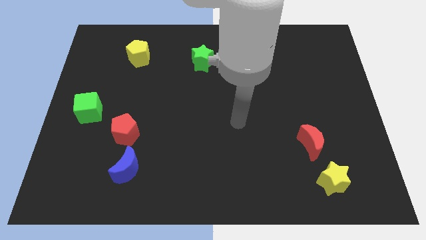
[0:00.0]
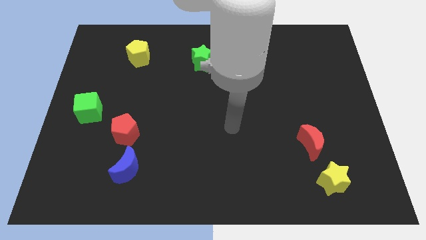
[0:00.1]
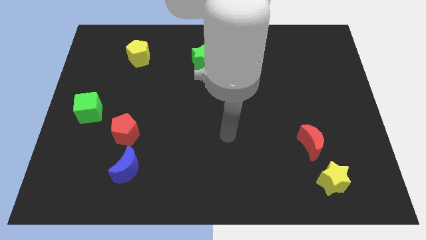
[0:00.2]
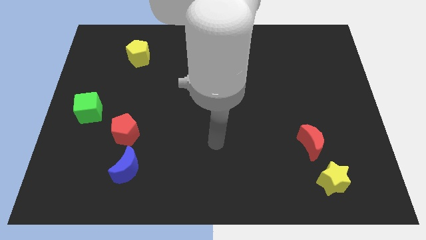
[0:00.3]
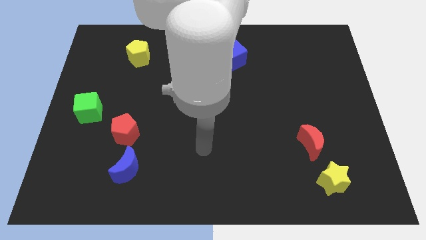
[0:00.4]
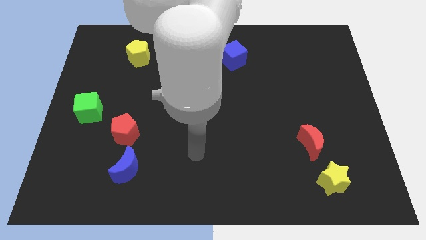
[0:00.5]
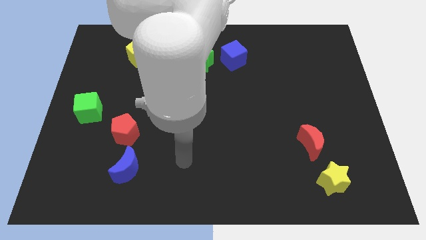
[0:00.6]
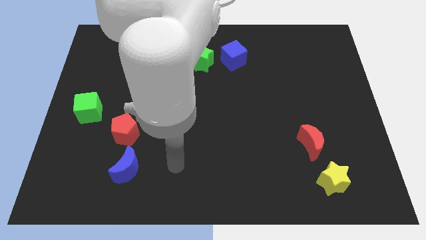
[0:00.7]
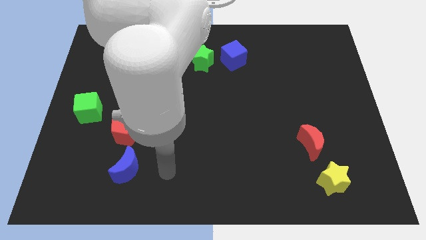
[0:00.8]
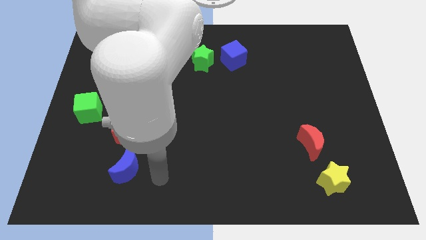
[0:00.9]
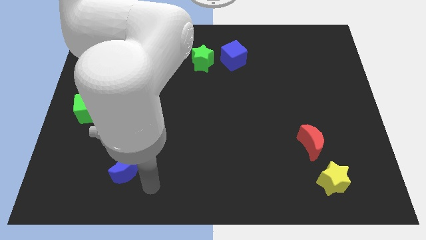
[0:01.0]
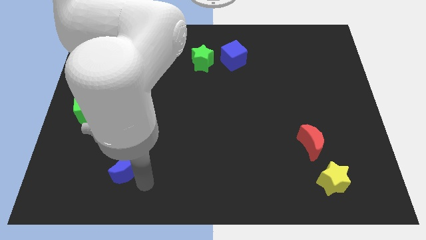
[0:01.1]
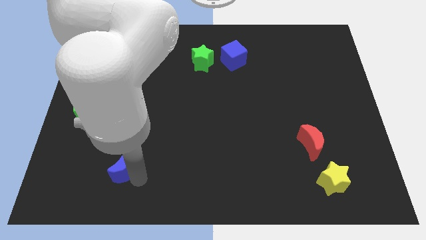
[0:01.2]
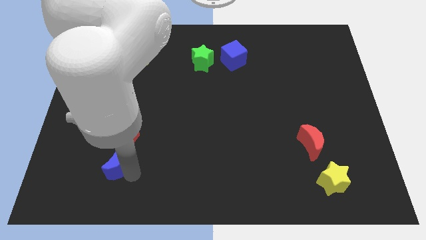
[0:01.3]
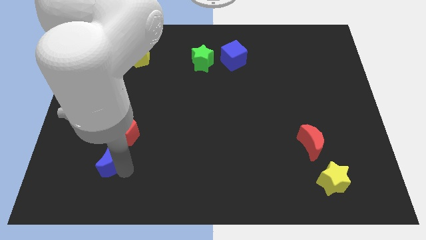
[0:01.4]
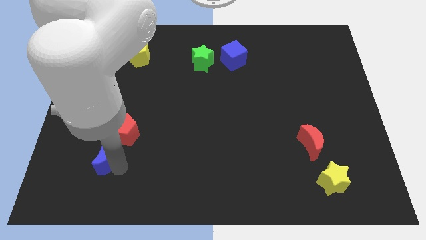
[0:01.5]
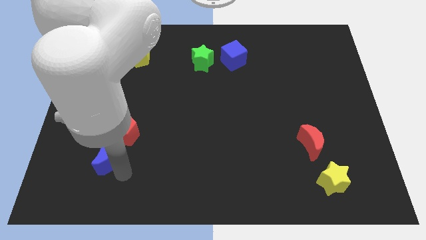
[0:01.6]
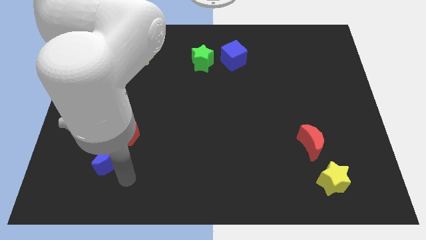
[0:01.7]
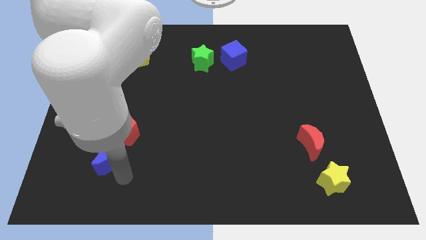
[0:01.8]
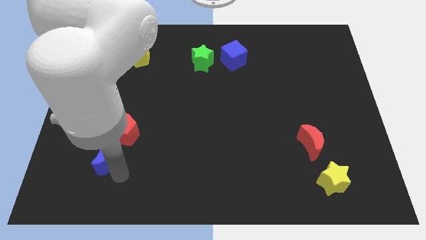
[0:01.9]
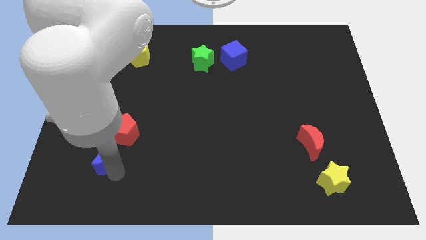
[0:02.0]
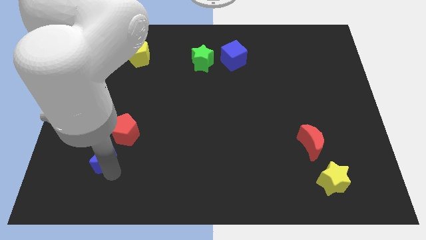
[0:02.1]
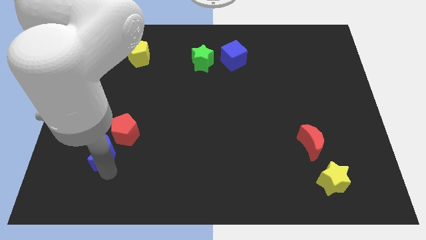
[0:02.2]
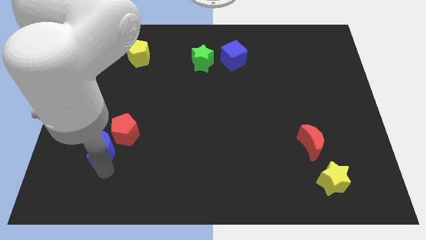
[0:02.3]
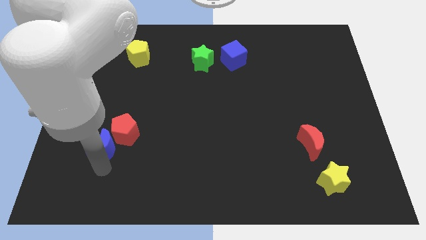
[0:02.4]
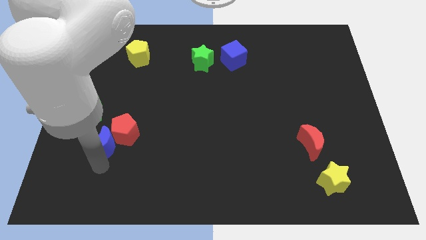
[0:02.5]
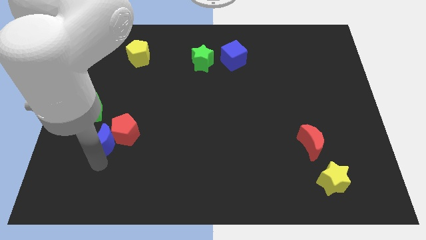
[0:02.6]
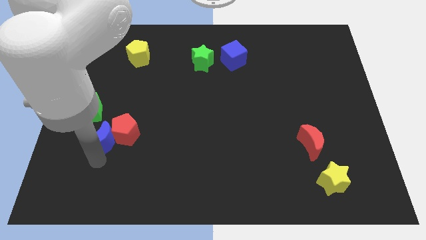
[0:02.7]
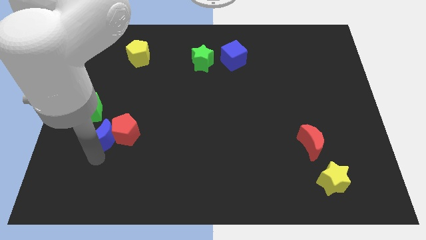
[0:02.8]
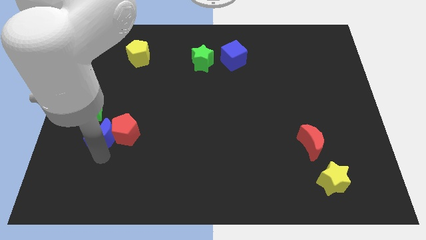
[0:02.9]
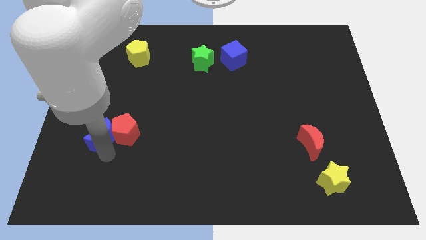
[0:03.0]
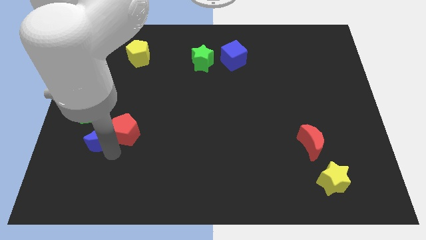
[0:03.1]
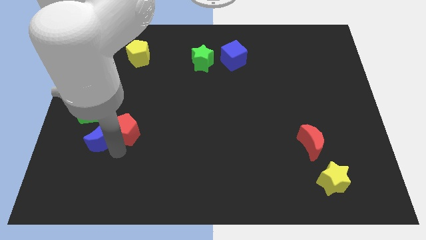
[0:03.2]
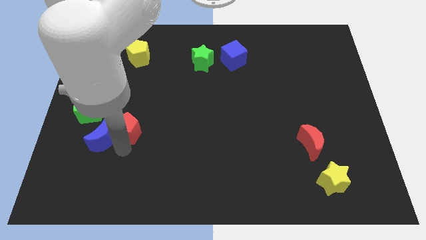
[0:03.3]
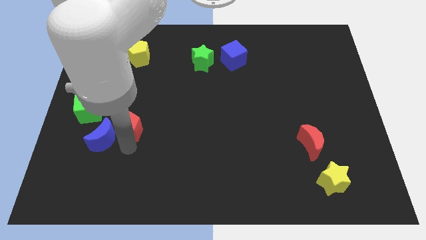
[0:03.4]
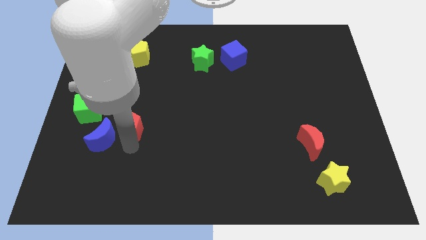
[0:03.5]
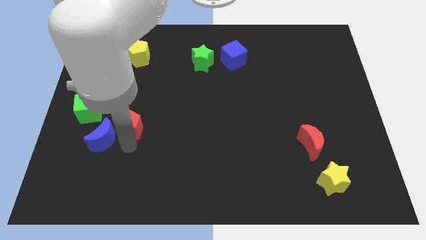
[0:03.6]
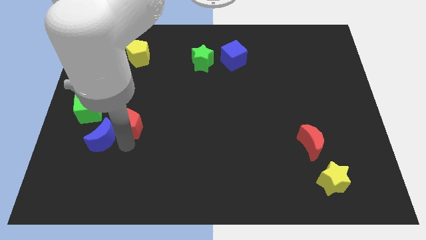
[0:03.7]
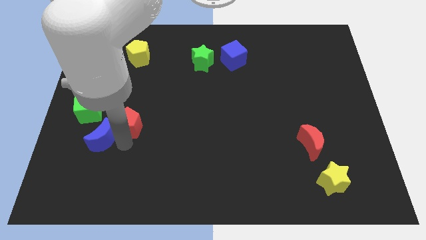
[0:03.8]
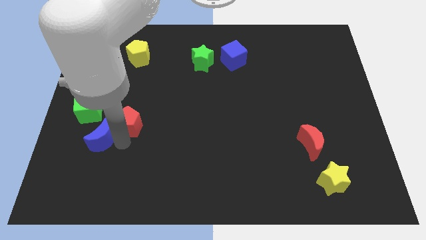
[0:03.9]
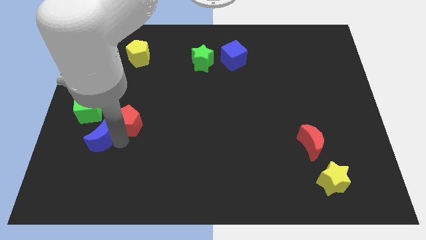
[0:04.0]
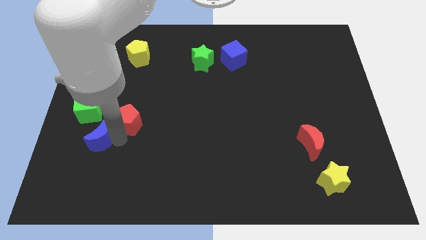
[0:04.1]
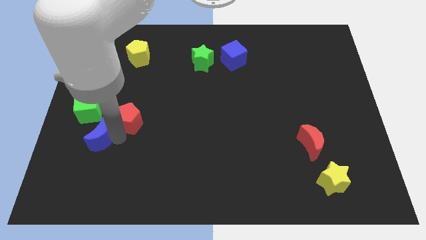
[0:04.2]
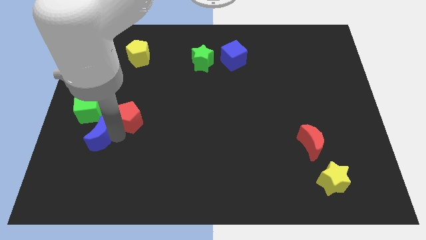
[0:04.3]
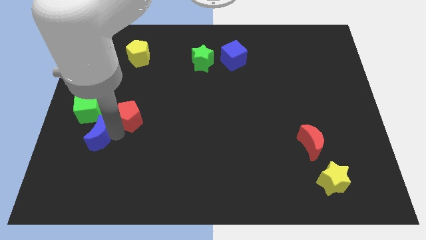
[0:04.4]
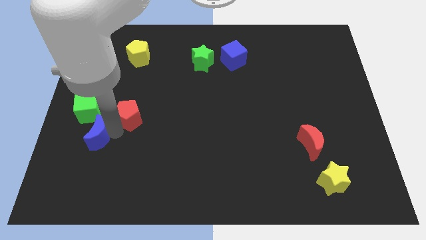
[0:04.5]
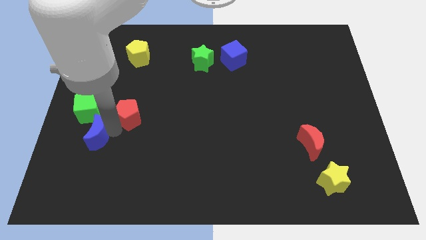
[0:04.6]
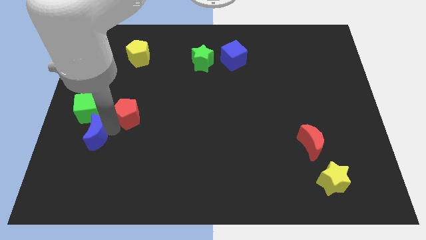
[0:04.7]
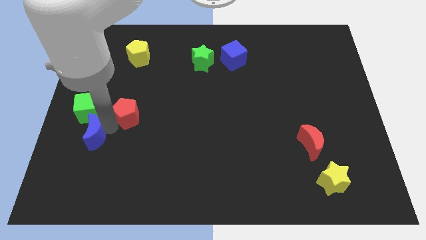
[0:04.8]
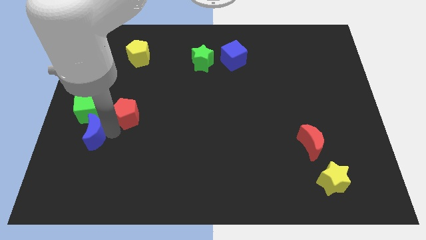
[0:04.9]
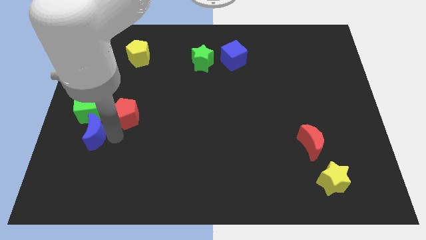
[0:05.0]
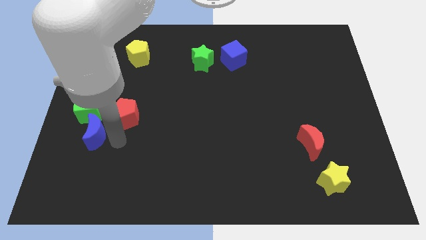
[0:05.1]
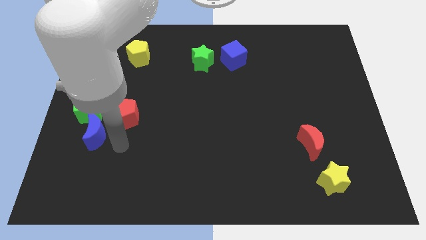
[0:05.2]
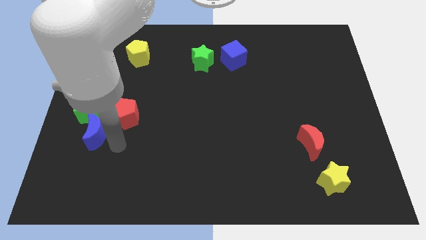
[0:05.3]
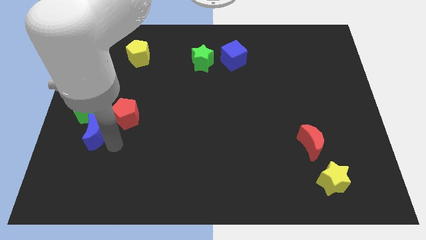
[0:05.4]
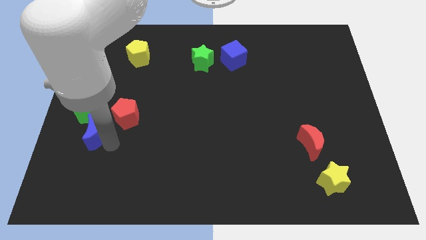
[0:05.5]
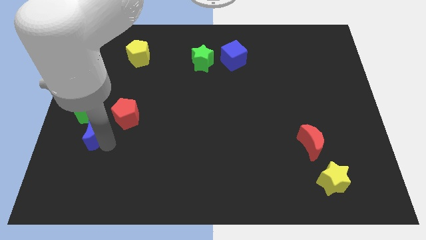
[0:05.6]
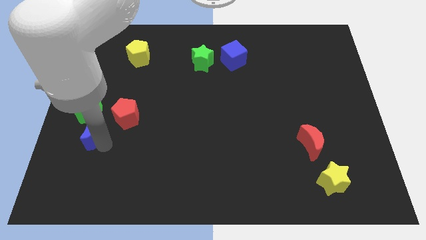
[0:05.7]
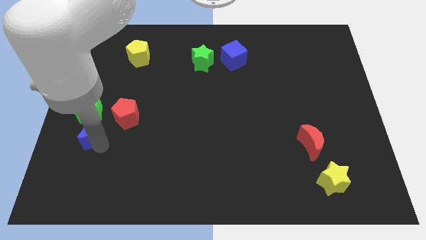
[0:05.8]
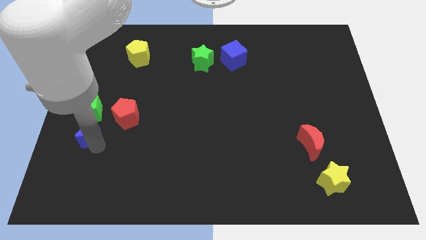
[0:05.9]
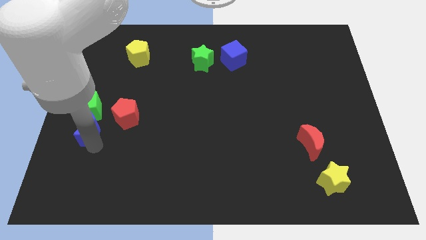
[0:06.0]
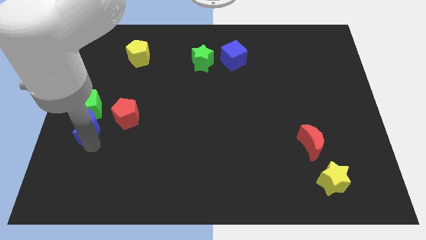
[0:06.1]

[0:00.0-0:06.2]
put the blue moon to the center left

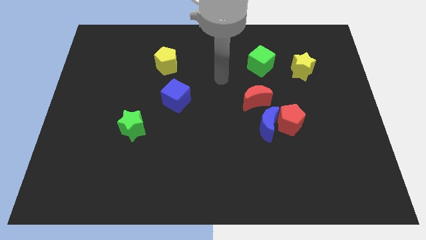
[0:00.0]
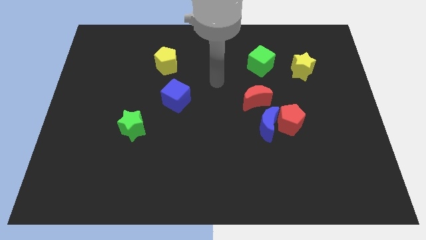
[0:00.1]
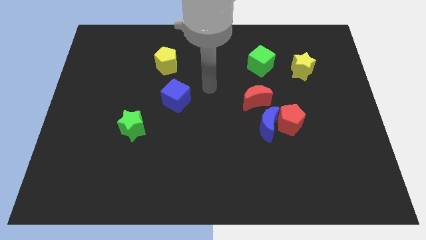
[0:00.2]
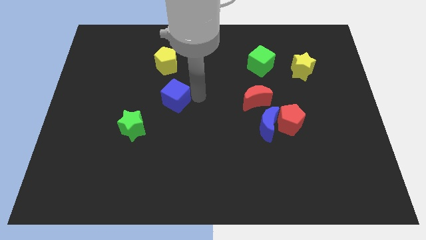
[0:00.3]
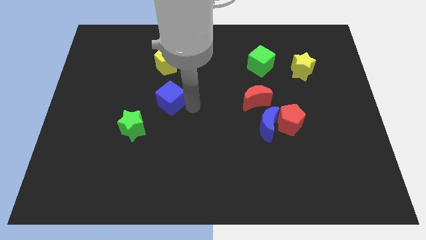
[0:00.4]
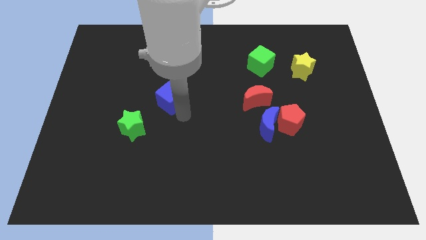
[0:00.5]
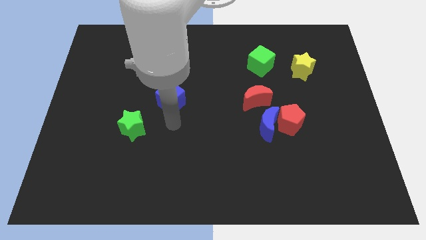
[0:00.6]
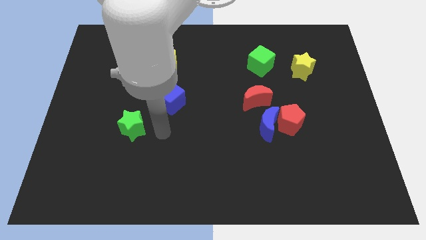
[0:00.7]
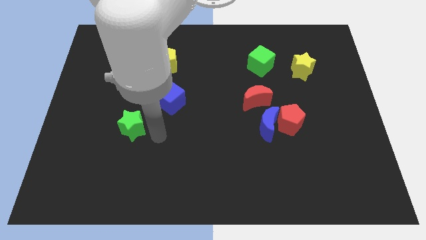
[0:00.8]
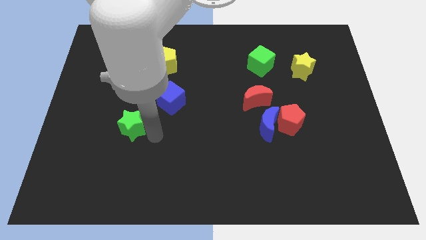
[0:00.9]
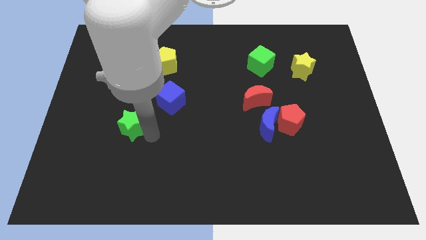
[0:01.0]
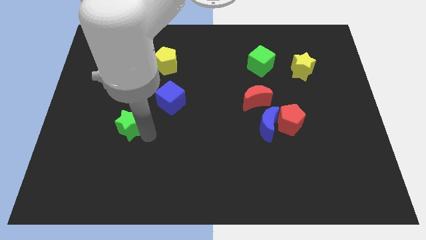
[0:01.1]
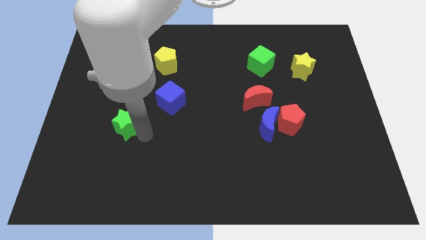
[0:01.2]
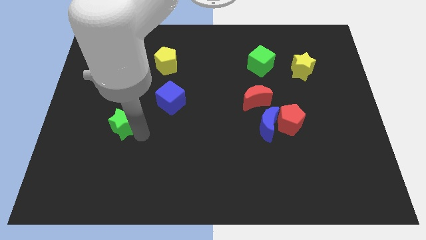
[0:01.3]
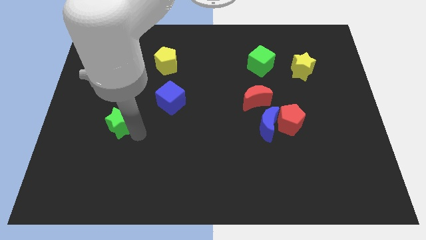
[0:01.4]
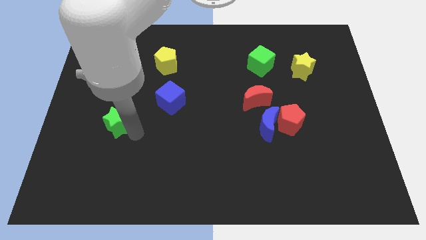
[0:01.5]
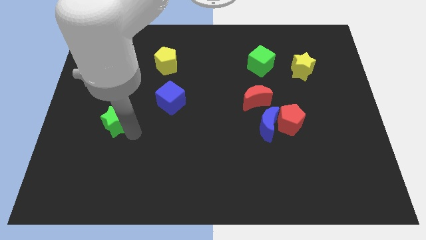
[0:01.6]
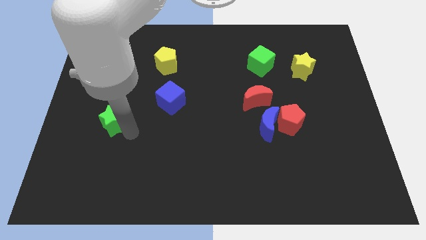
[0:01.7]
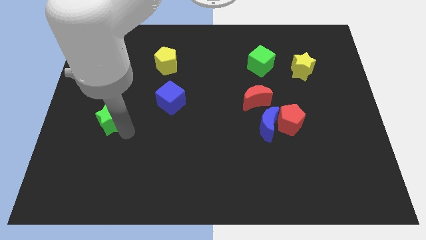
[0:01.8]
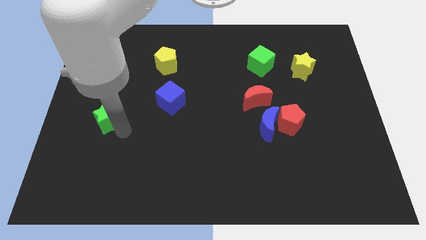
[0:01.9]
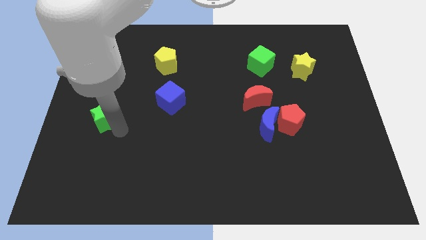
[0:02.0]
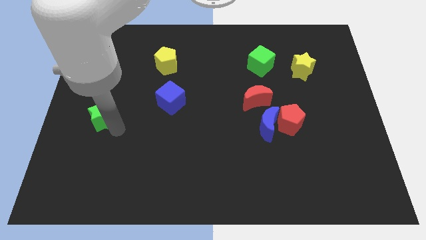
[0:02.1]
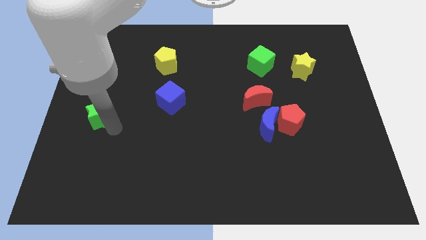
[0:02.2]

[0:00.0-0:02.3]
move the green star to the left side
